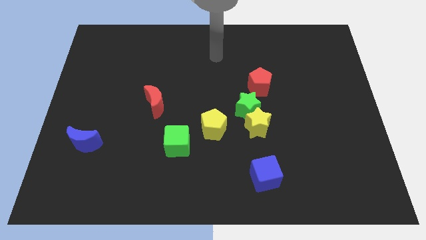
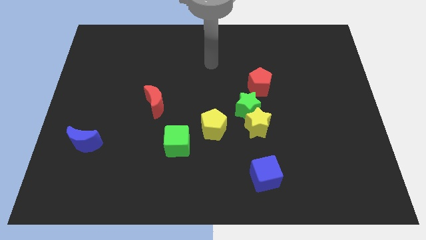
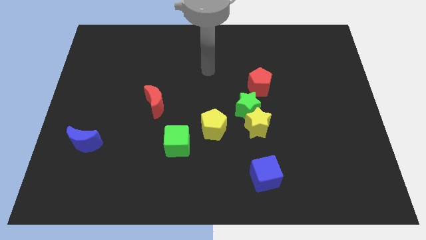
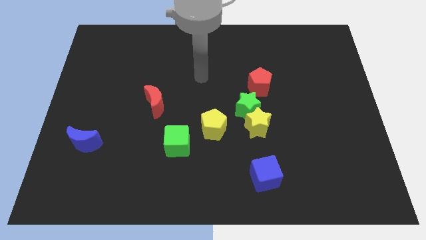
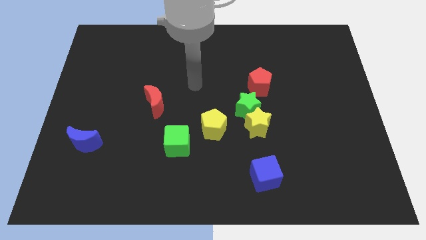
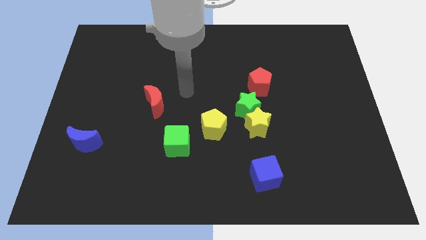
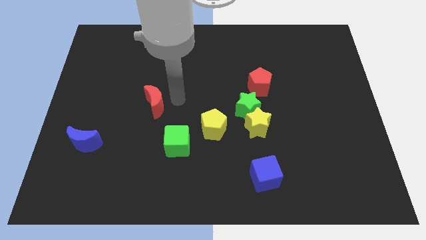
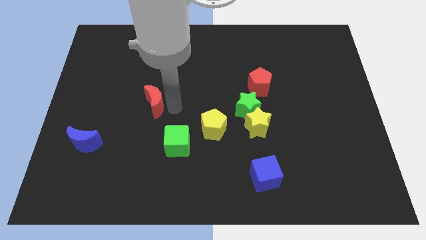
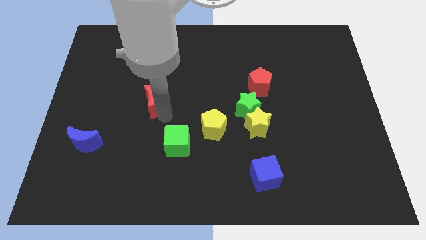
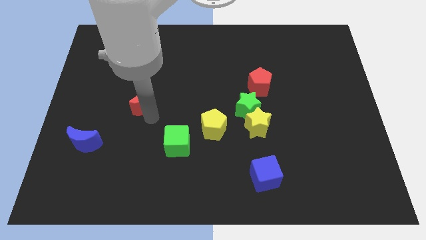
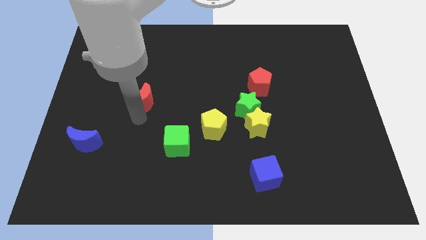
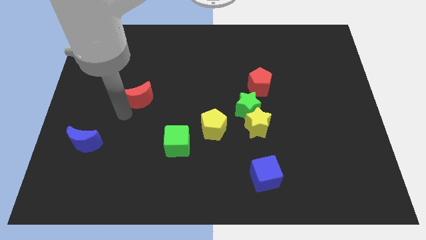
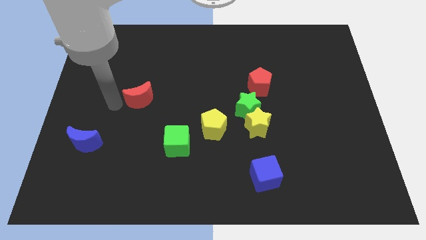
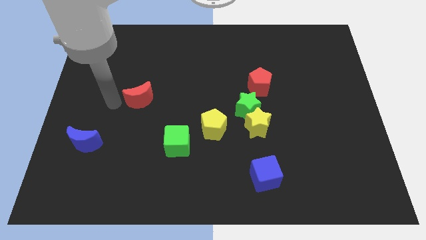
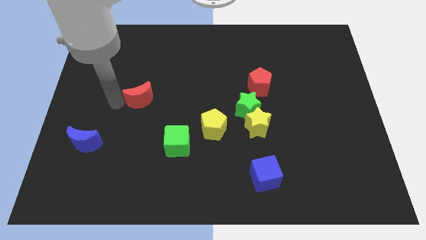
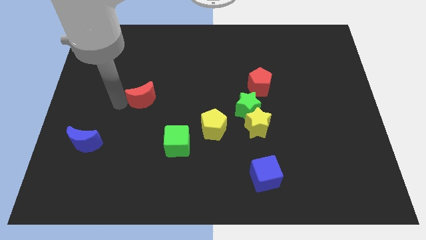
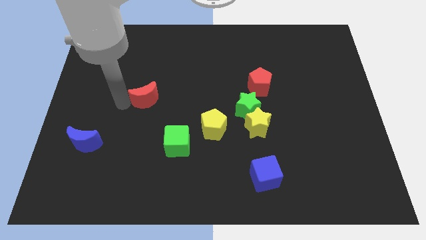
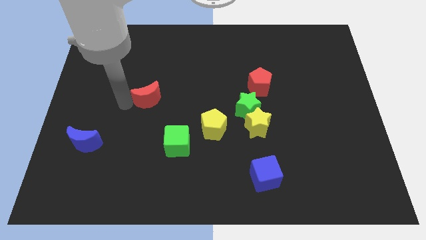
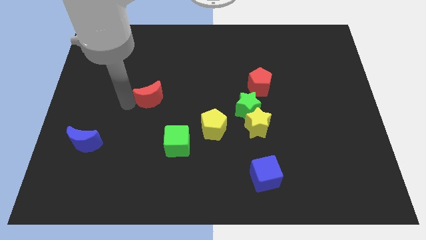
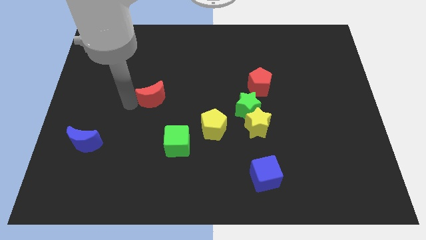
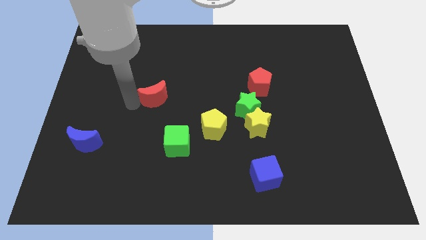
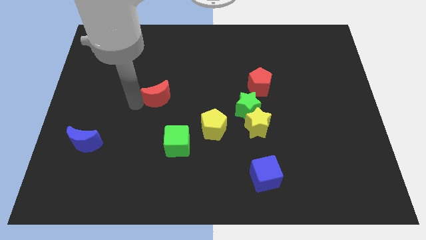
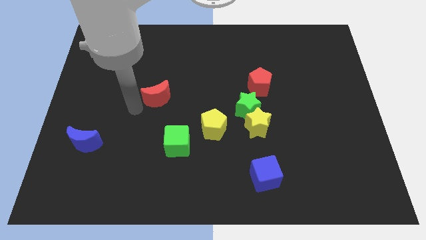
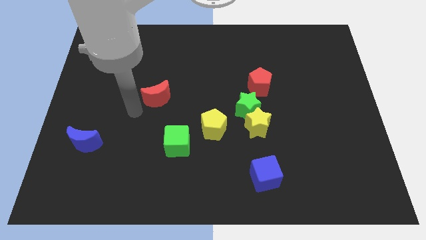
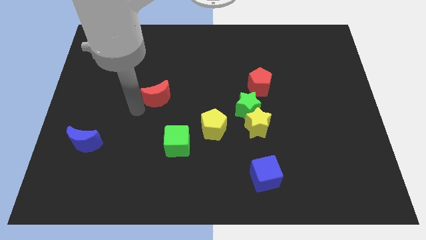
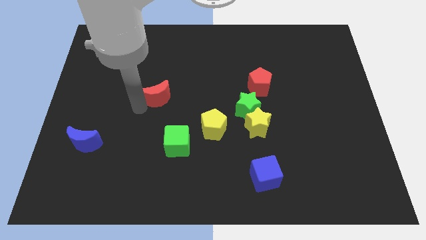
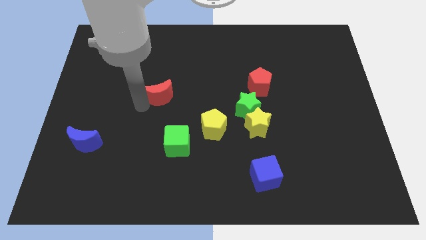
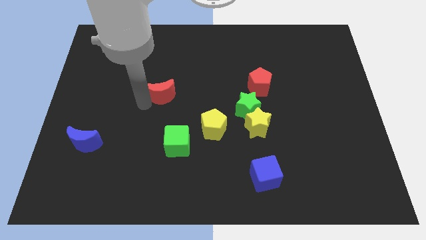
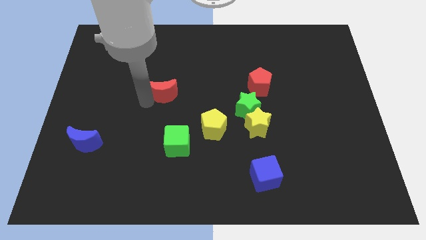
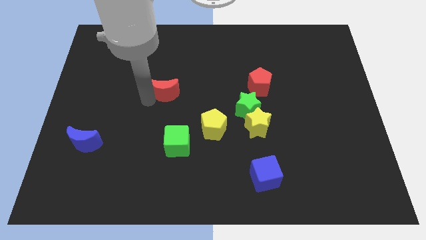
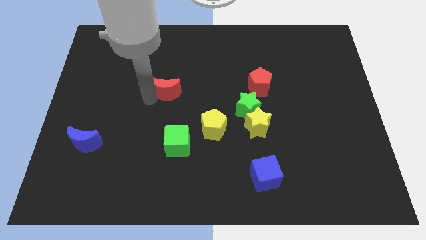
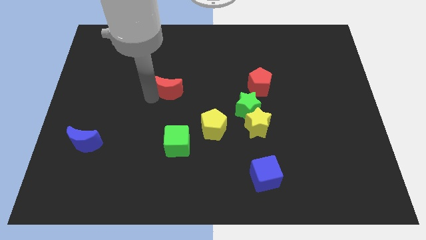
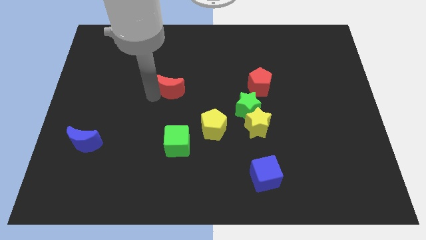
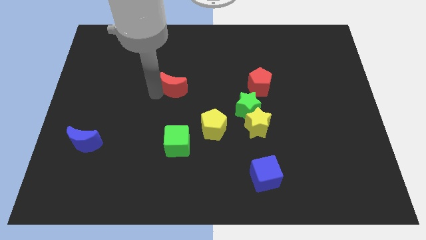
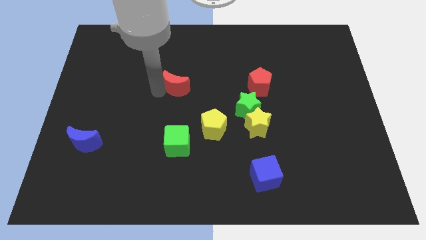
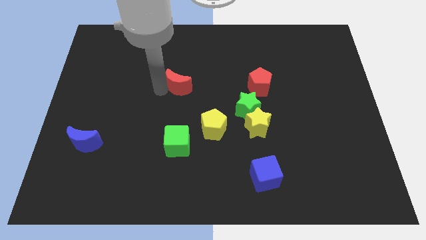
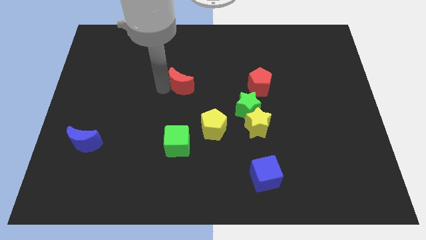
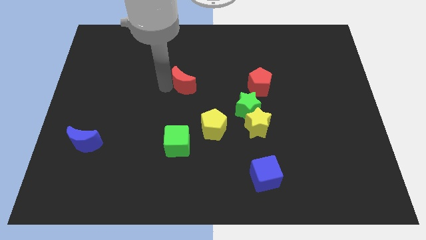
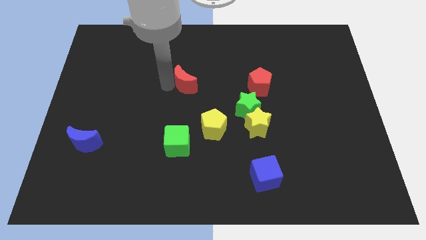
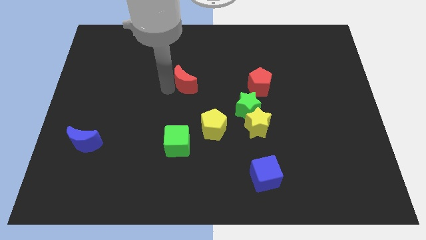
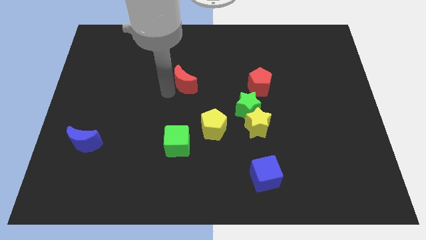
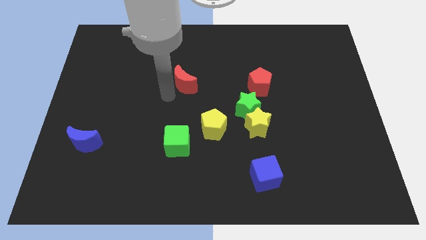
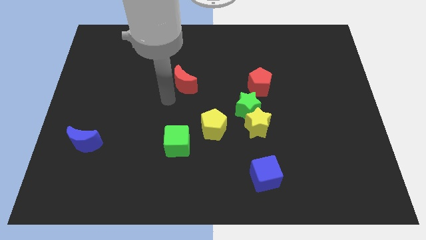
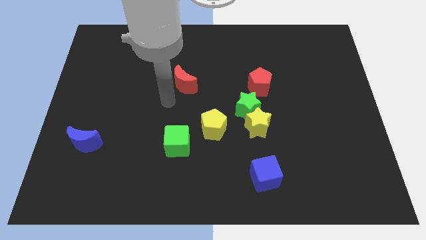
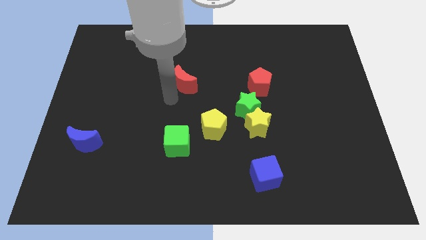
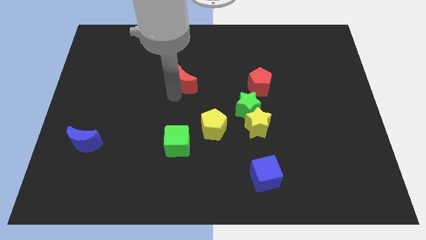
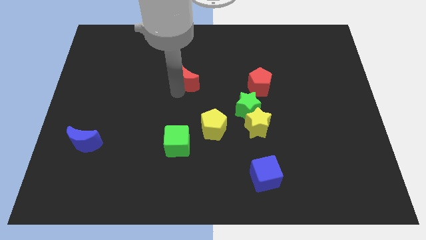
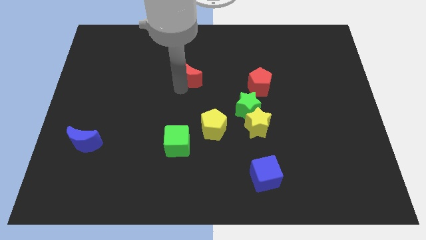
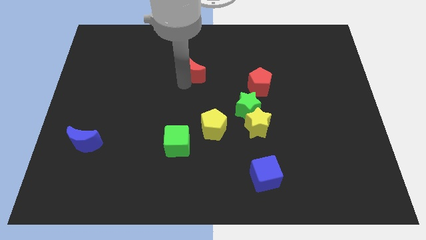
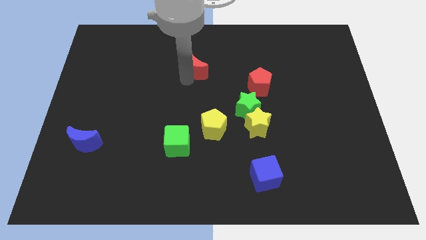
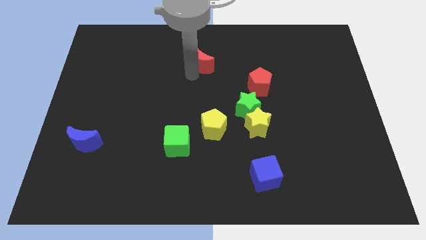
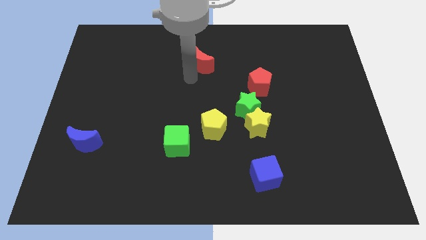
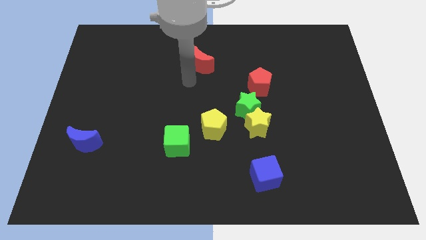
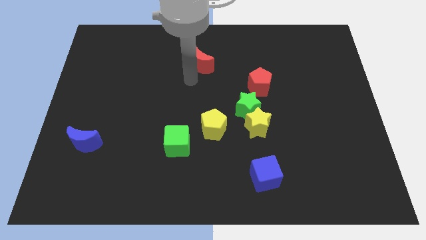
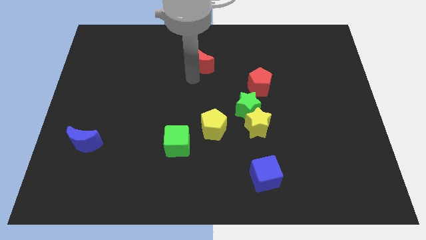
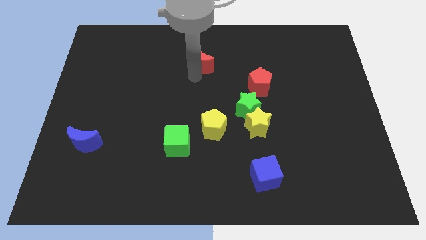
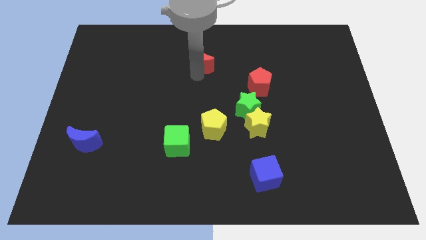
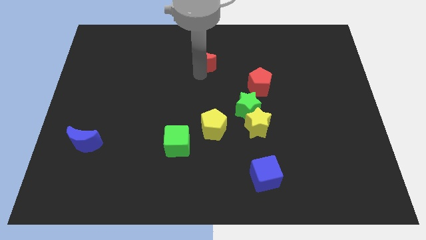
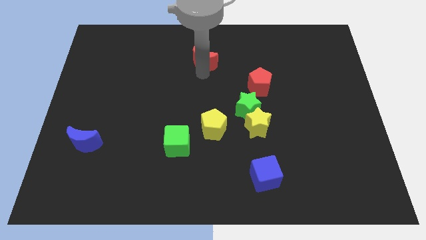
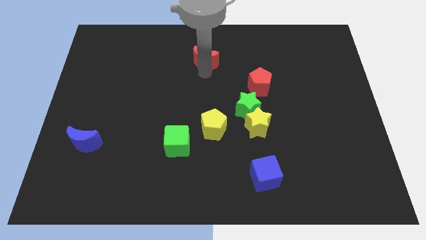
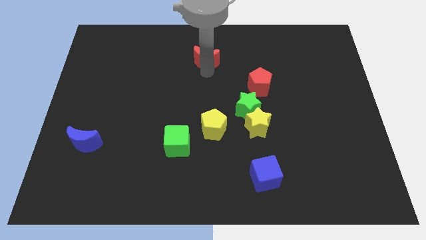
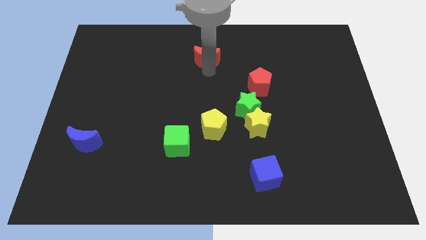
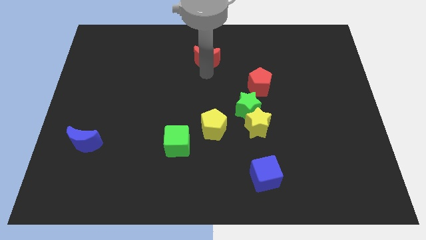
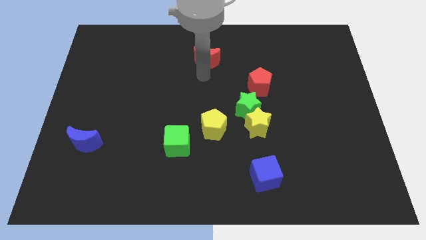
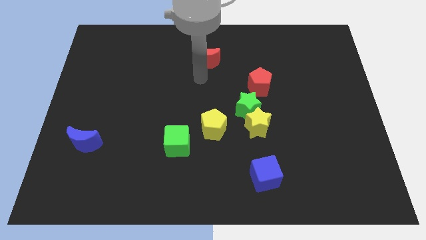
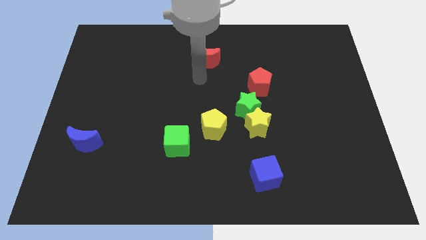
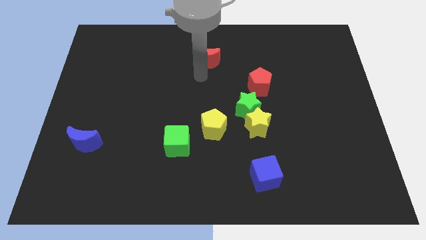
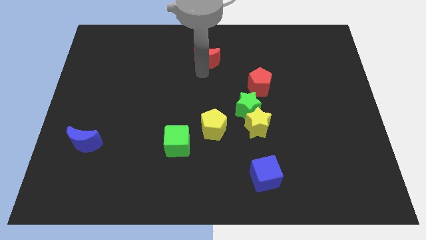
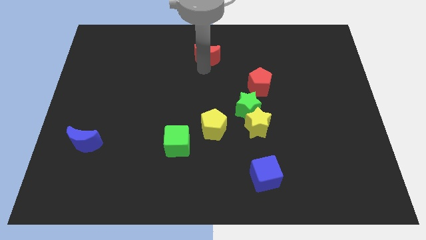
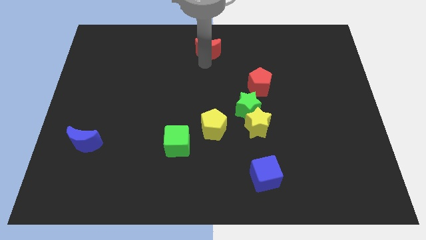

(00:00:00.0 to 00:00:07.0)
put the red moon to the top side
